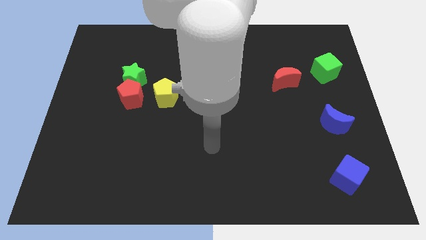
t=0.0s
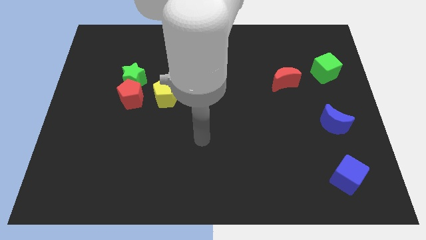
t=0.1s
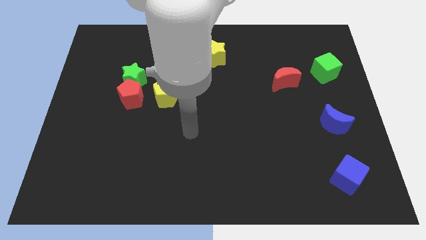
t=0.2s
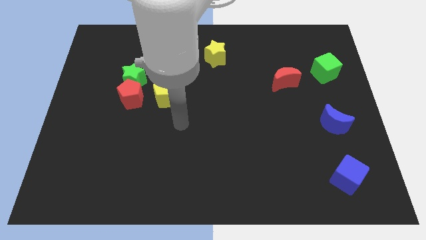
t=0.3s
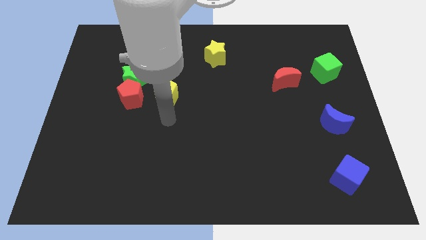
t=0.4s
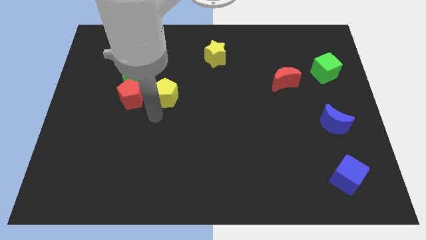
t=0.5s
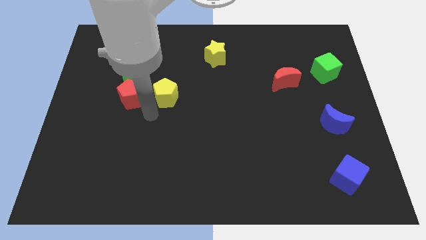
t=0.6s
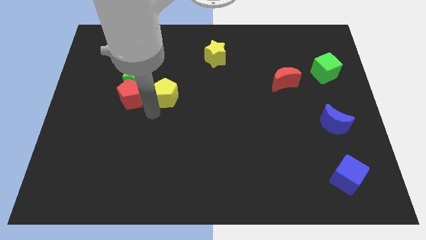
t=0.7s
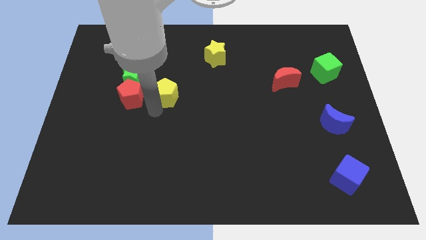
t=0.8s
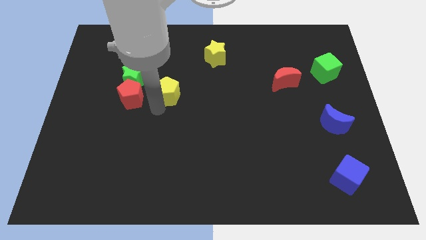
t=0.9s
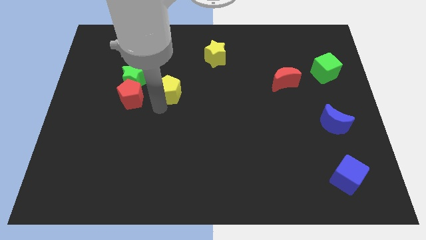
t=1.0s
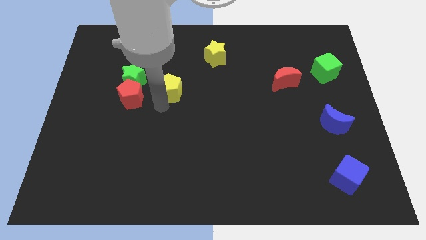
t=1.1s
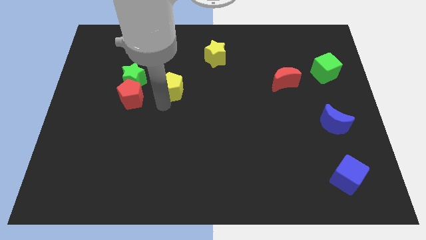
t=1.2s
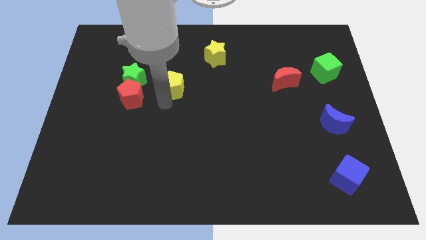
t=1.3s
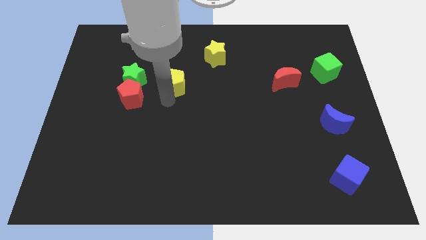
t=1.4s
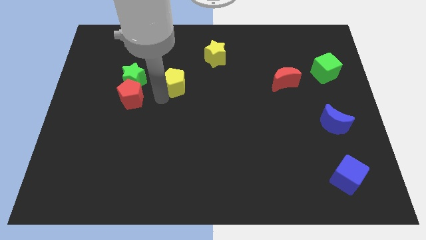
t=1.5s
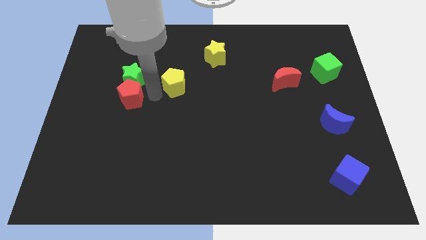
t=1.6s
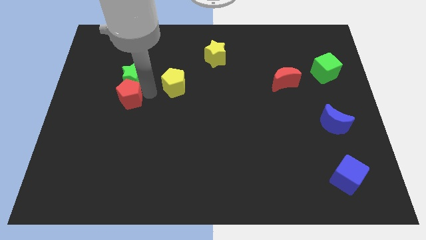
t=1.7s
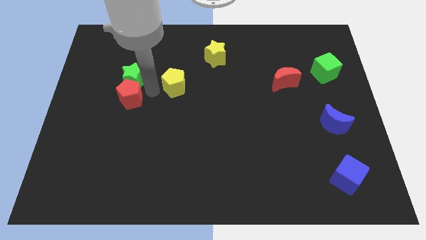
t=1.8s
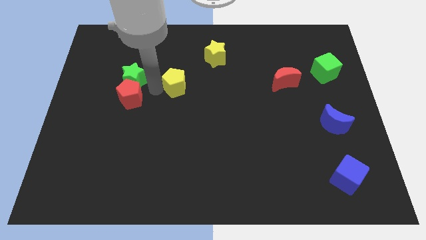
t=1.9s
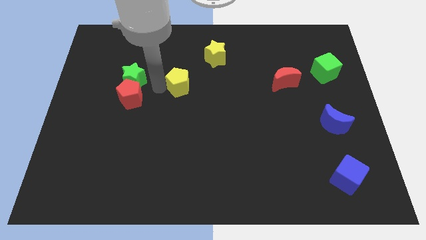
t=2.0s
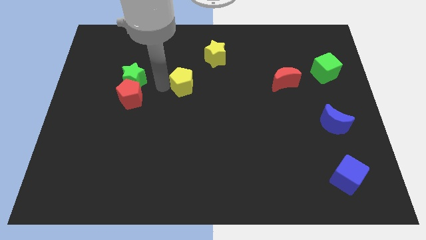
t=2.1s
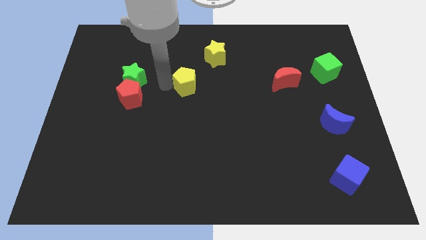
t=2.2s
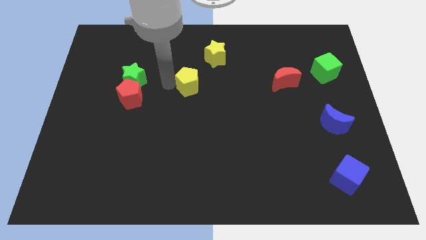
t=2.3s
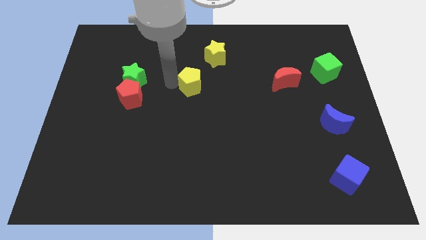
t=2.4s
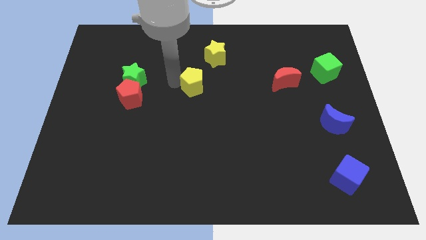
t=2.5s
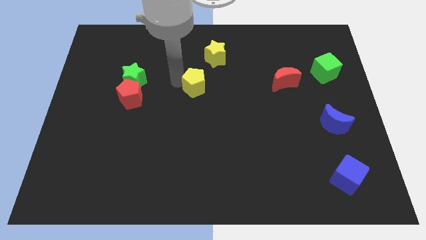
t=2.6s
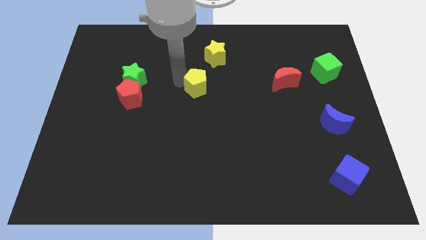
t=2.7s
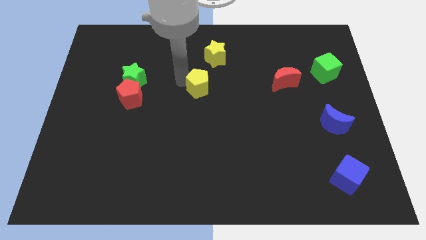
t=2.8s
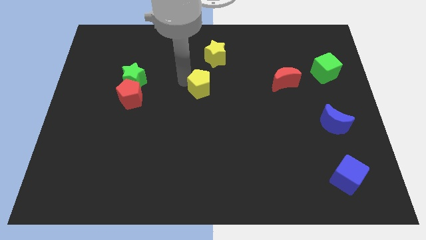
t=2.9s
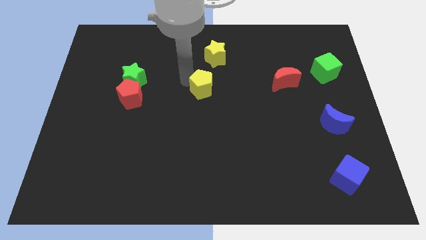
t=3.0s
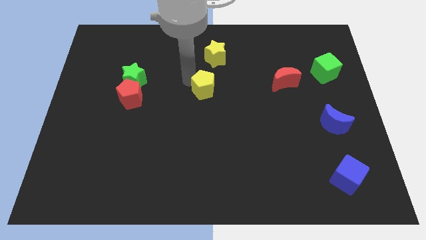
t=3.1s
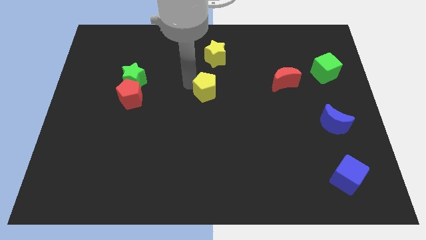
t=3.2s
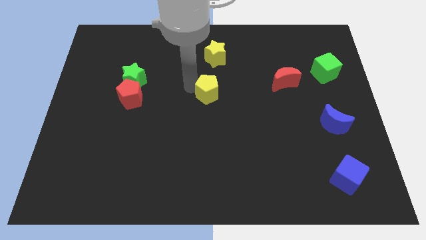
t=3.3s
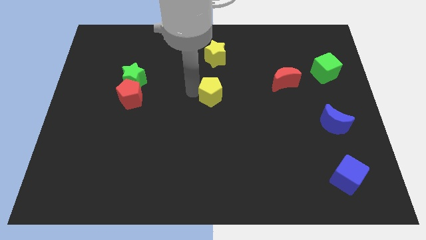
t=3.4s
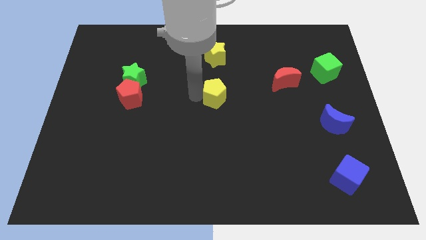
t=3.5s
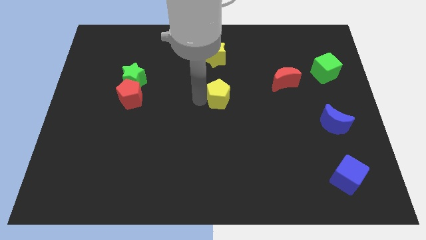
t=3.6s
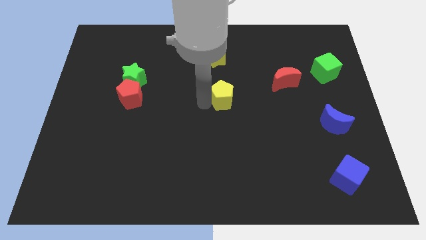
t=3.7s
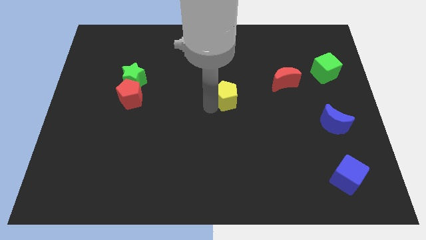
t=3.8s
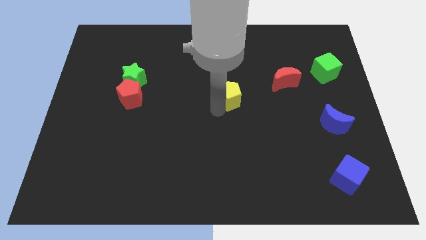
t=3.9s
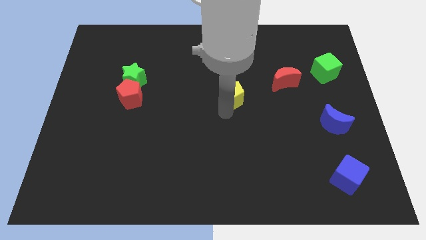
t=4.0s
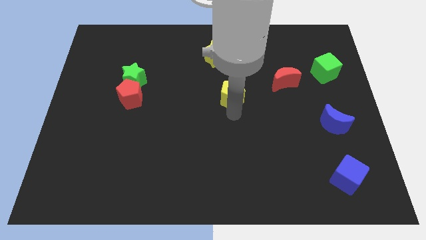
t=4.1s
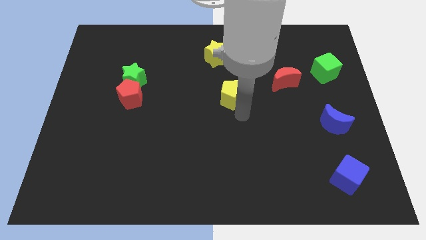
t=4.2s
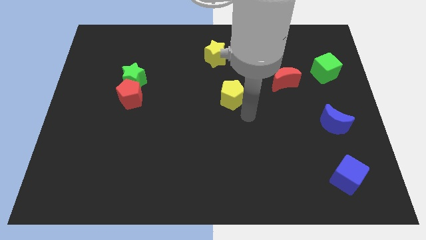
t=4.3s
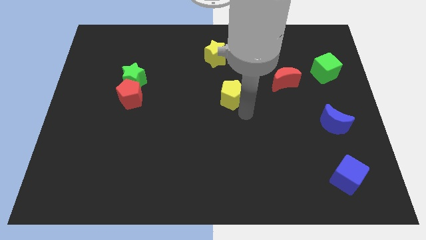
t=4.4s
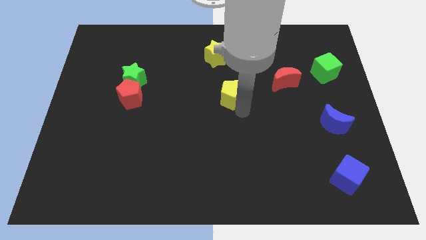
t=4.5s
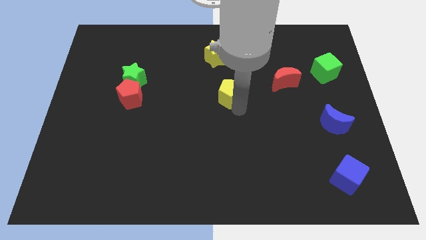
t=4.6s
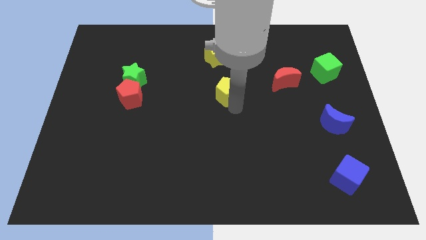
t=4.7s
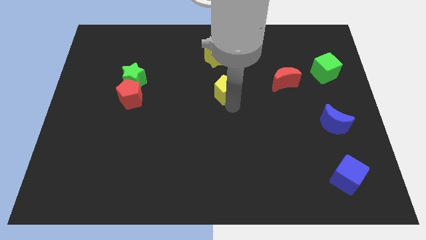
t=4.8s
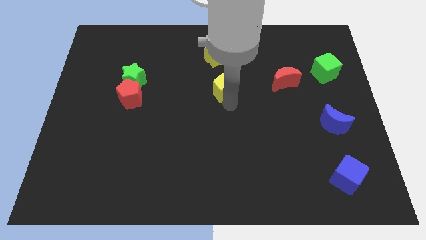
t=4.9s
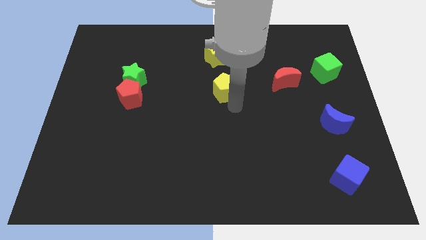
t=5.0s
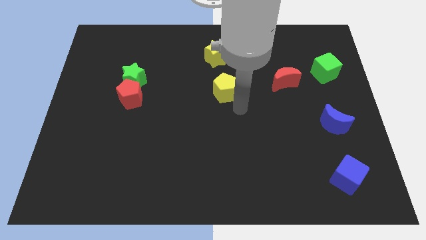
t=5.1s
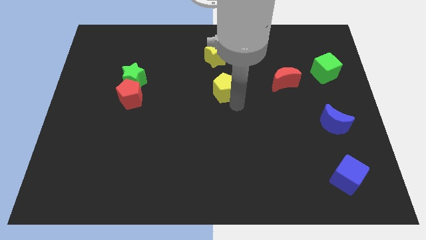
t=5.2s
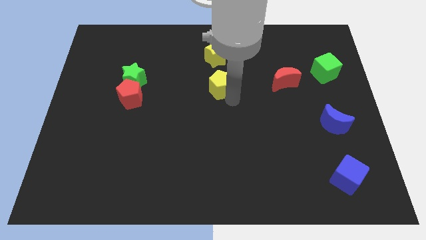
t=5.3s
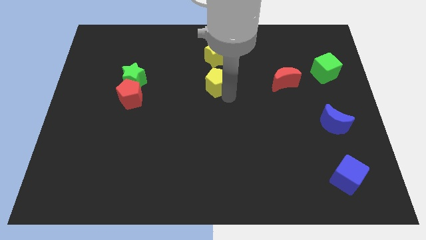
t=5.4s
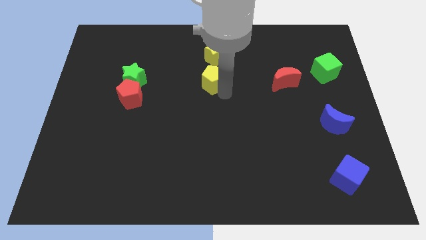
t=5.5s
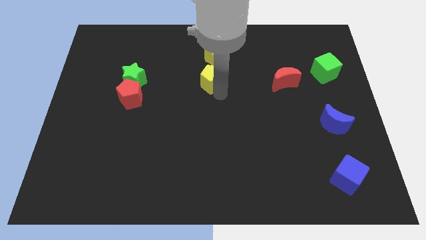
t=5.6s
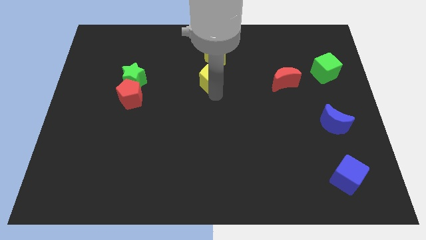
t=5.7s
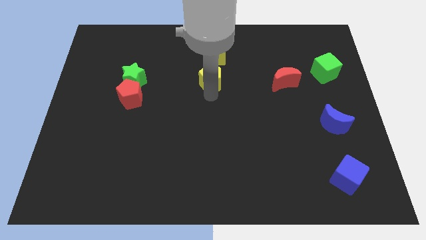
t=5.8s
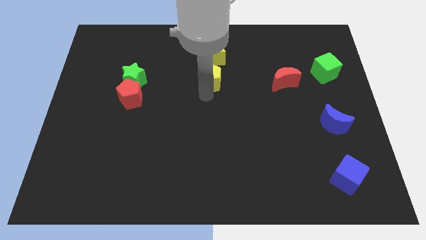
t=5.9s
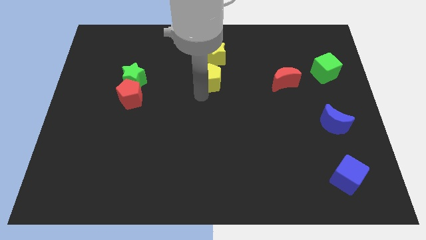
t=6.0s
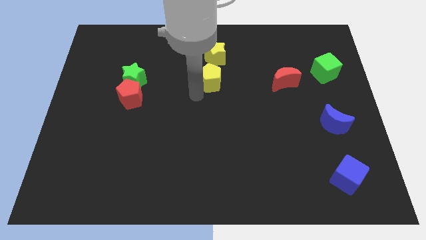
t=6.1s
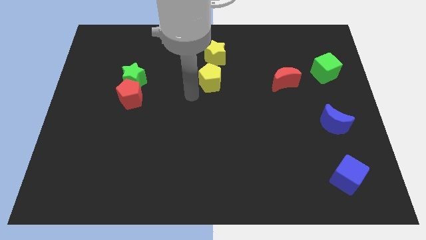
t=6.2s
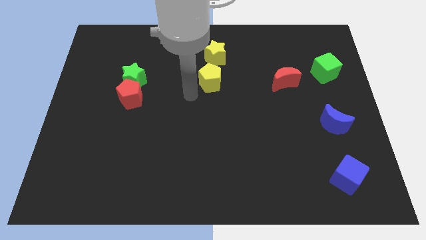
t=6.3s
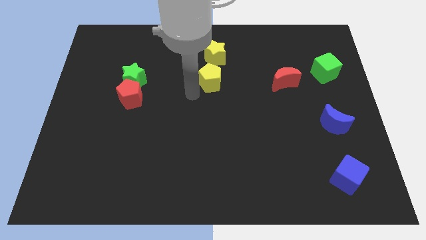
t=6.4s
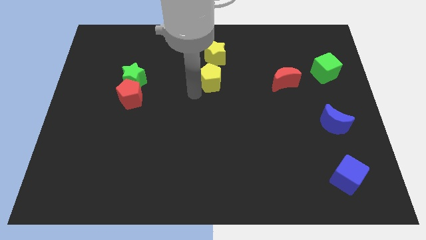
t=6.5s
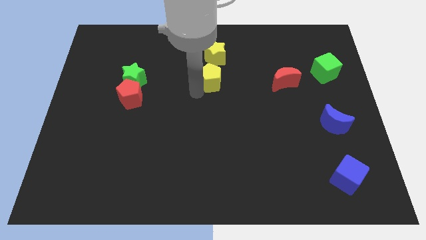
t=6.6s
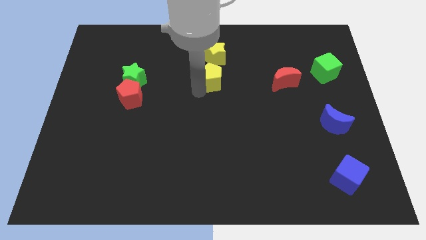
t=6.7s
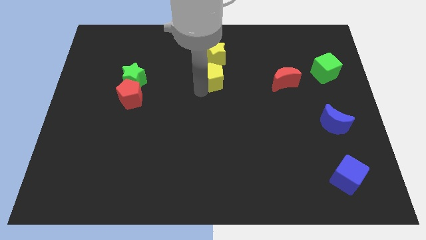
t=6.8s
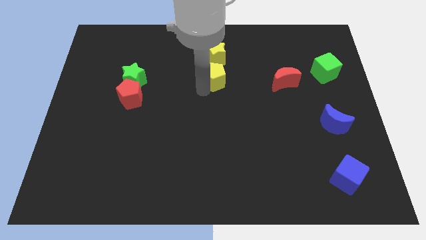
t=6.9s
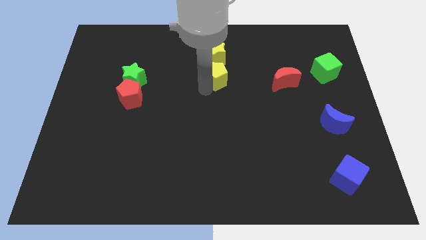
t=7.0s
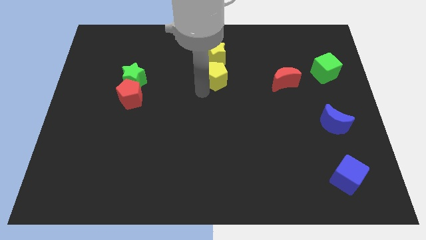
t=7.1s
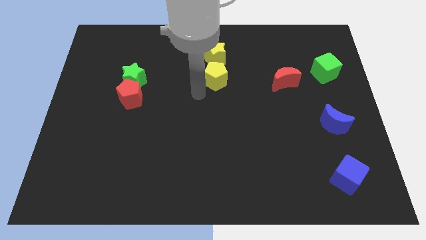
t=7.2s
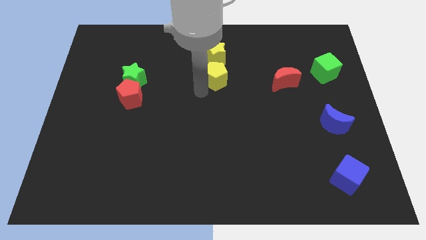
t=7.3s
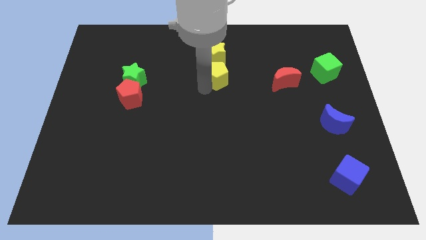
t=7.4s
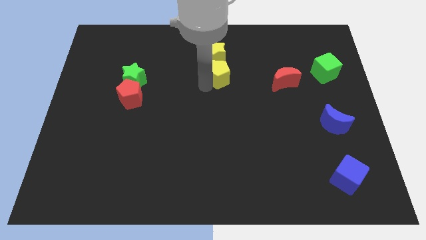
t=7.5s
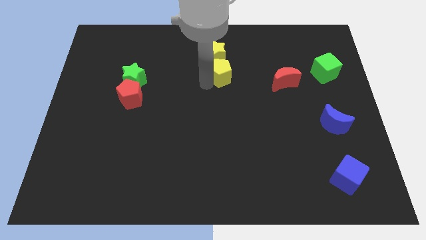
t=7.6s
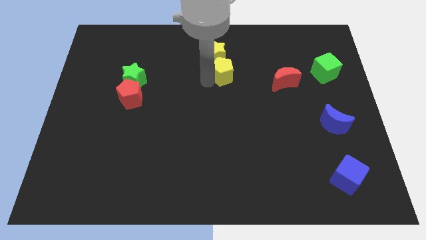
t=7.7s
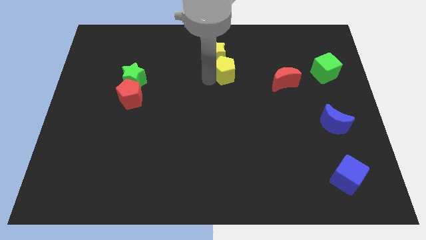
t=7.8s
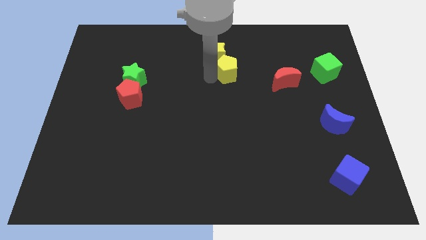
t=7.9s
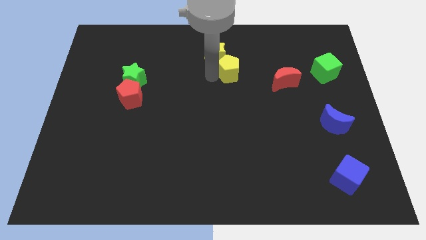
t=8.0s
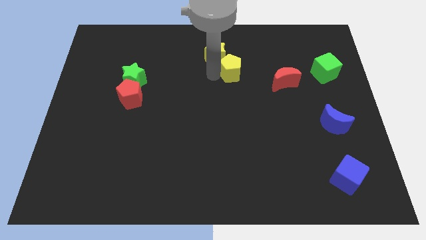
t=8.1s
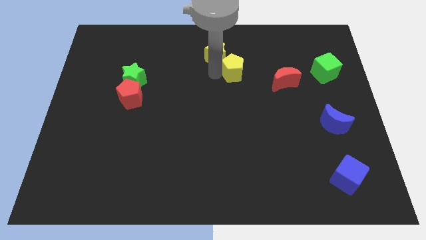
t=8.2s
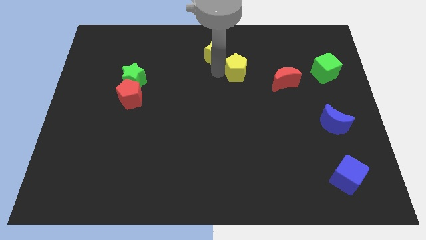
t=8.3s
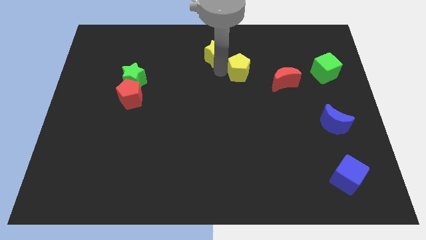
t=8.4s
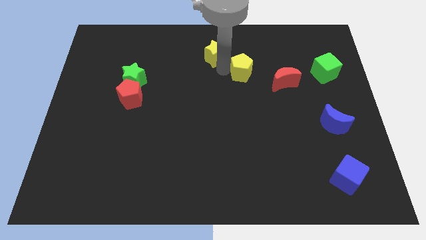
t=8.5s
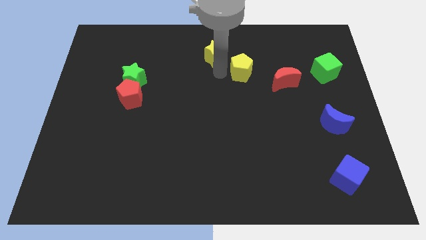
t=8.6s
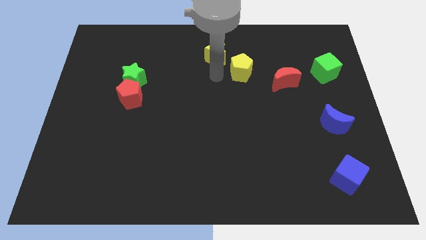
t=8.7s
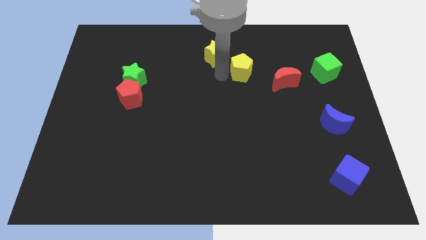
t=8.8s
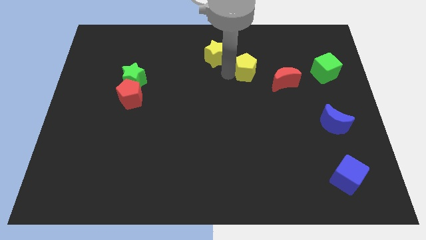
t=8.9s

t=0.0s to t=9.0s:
put the yellow pentagon diagonally up and to the left of the red moon
